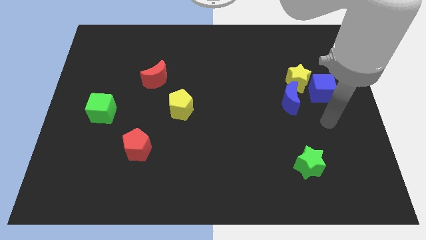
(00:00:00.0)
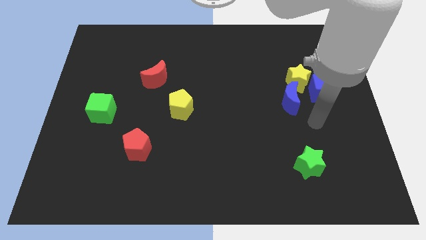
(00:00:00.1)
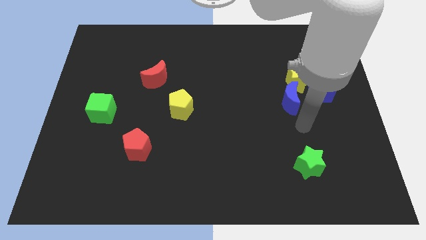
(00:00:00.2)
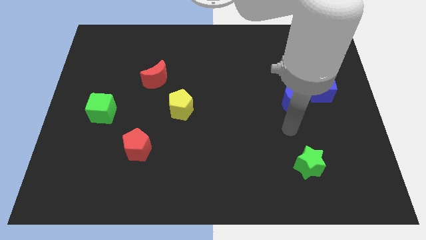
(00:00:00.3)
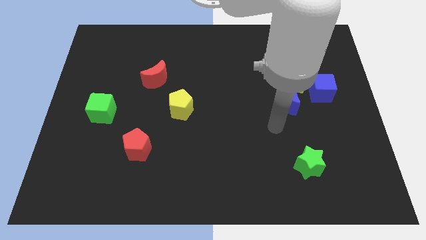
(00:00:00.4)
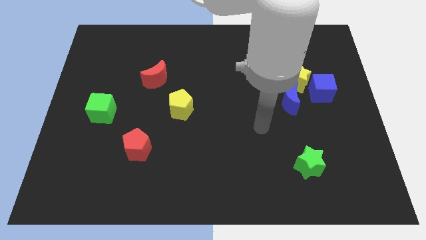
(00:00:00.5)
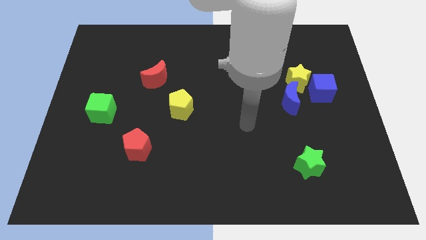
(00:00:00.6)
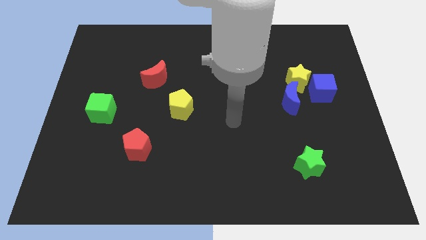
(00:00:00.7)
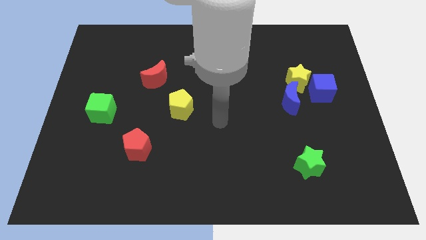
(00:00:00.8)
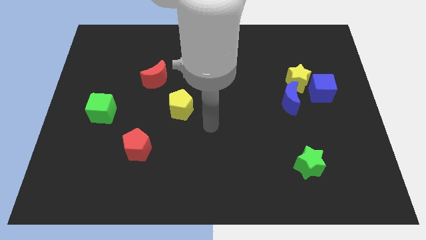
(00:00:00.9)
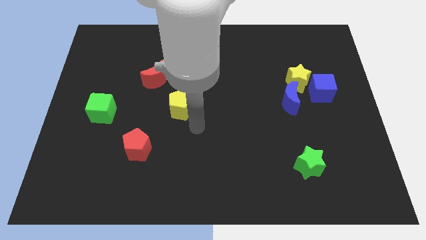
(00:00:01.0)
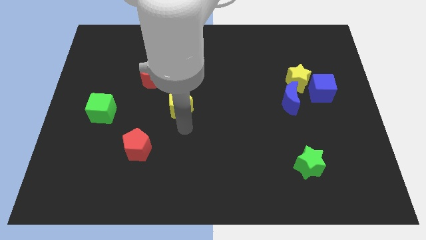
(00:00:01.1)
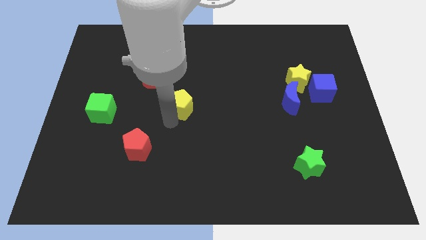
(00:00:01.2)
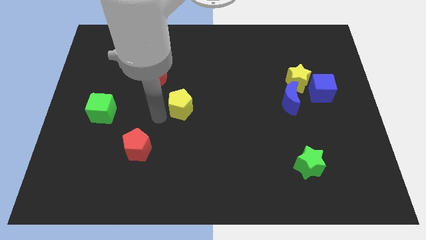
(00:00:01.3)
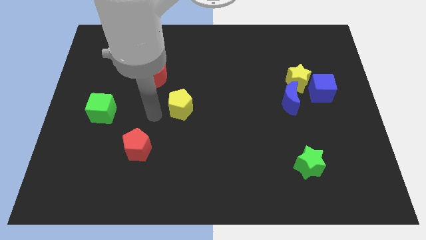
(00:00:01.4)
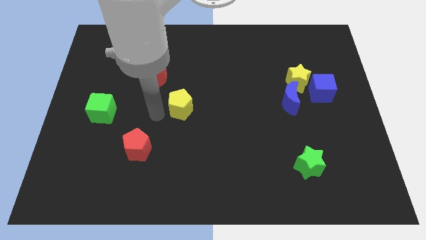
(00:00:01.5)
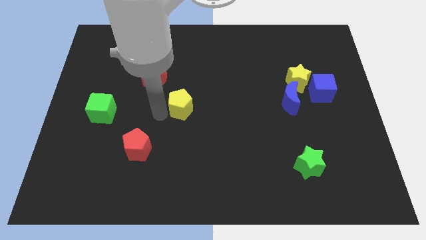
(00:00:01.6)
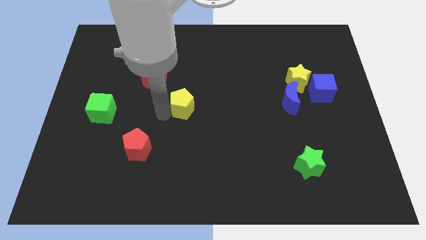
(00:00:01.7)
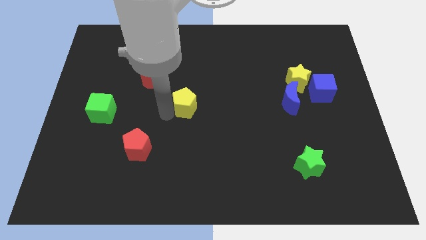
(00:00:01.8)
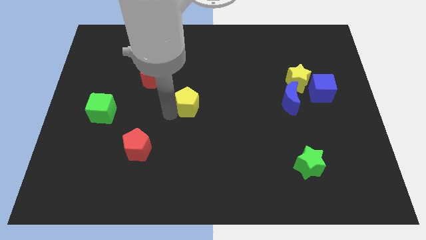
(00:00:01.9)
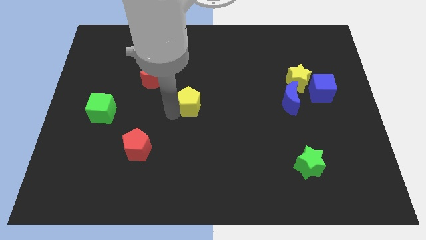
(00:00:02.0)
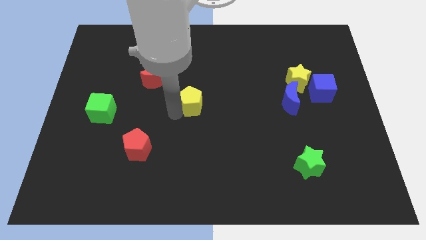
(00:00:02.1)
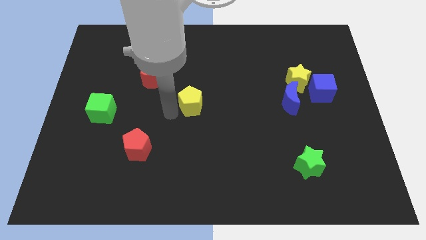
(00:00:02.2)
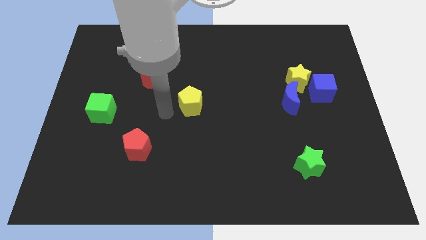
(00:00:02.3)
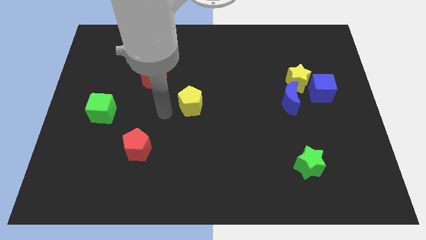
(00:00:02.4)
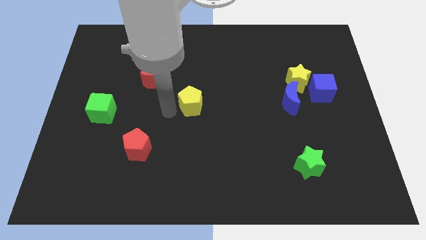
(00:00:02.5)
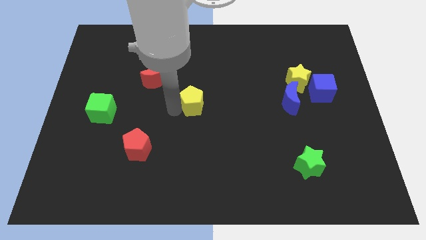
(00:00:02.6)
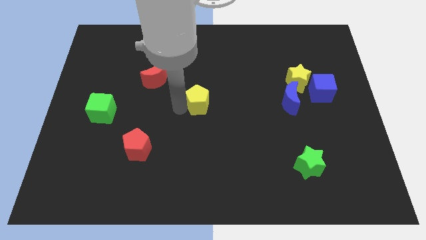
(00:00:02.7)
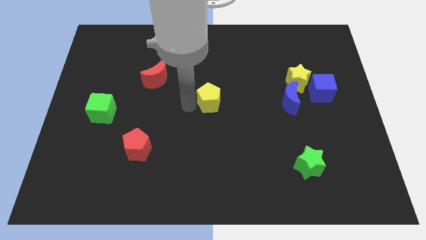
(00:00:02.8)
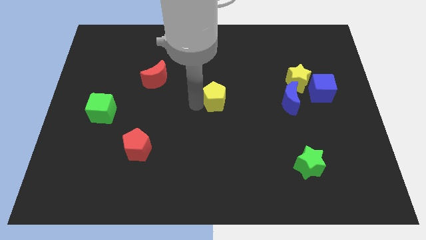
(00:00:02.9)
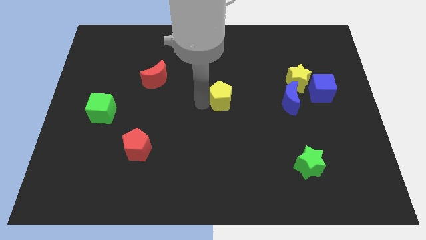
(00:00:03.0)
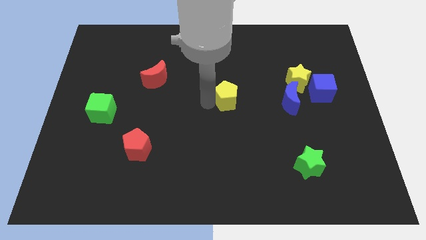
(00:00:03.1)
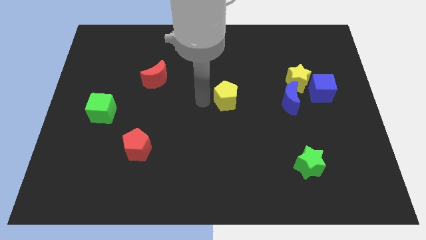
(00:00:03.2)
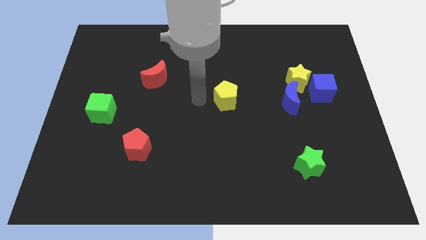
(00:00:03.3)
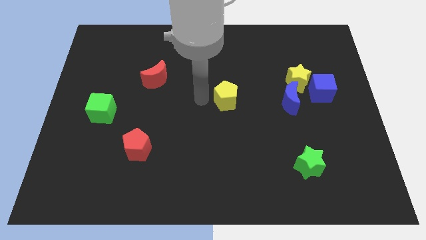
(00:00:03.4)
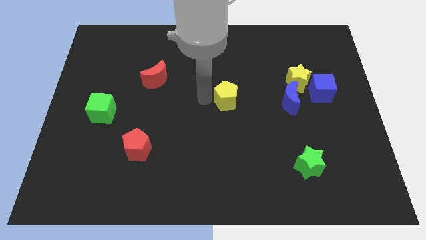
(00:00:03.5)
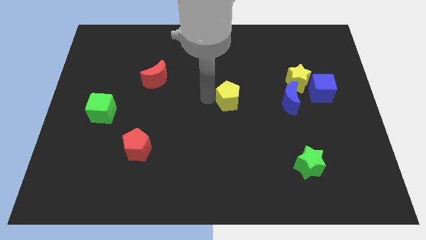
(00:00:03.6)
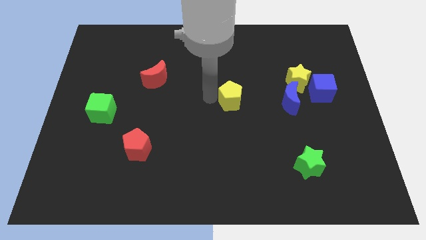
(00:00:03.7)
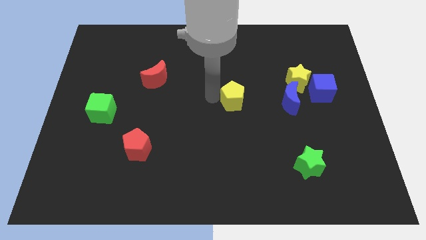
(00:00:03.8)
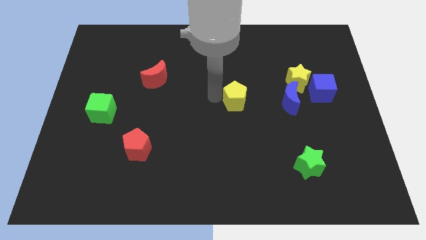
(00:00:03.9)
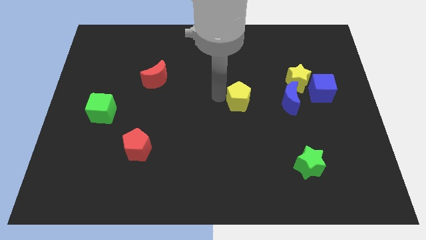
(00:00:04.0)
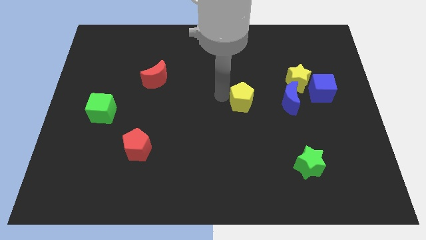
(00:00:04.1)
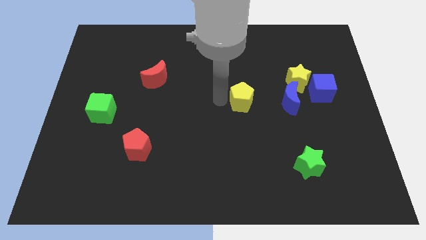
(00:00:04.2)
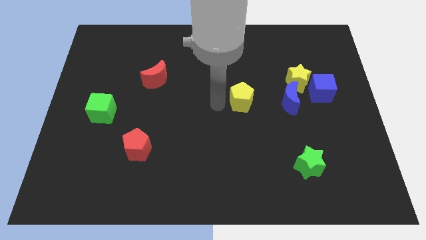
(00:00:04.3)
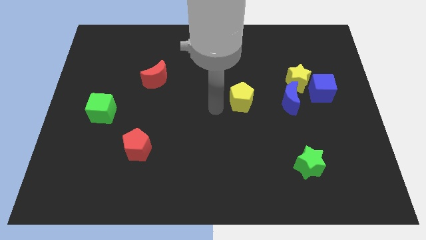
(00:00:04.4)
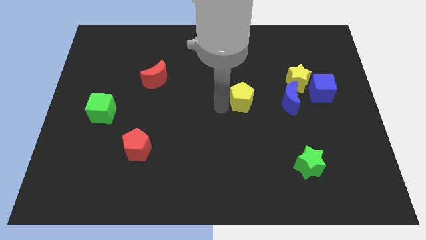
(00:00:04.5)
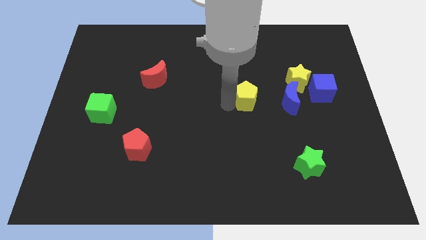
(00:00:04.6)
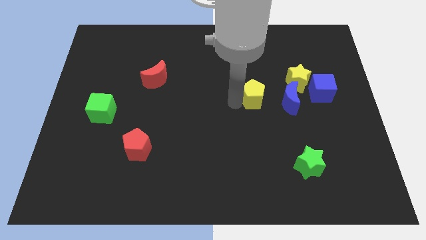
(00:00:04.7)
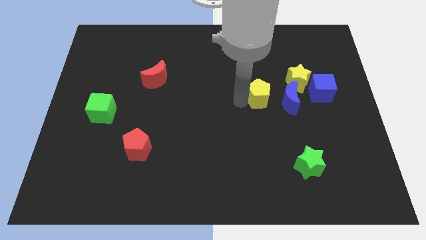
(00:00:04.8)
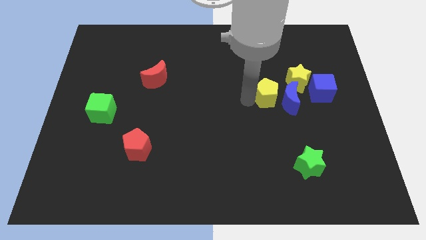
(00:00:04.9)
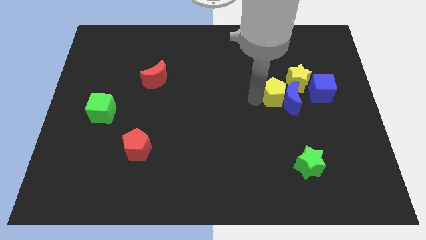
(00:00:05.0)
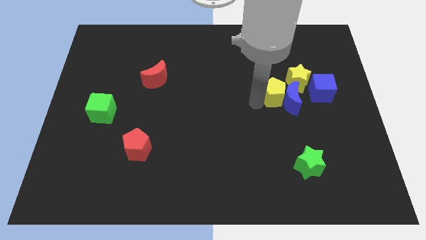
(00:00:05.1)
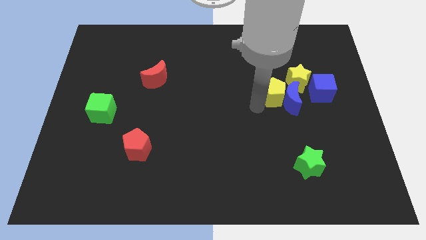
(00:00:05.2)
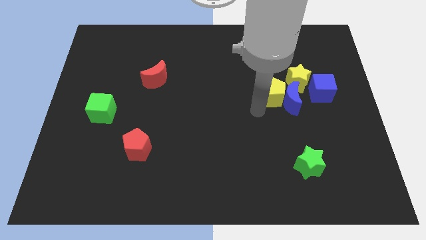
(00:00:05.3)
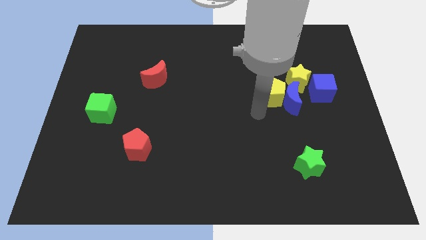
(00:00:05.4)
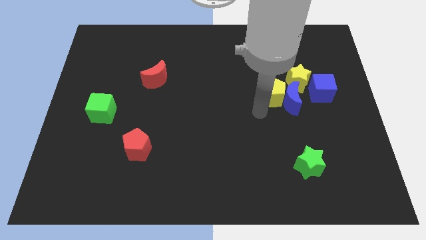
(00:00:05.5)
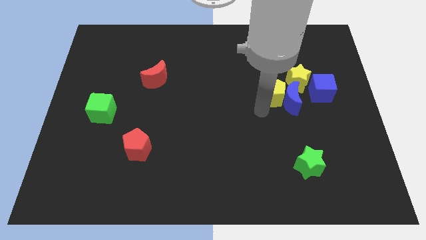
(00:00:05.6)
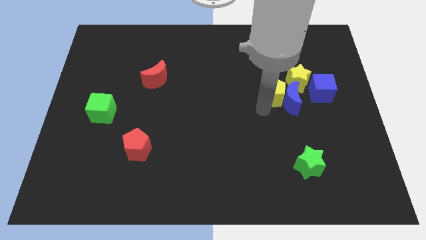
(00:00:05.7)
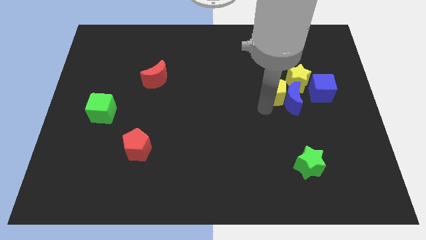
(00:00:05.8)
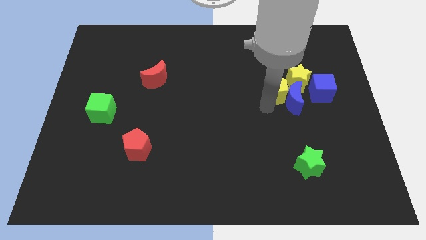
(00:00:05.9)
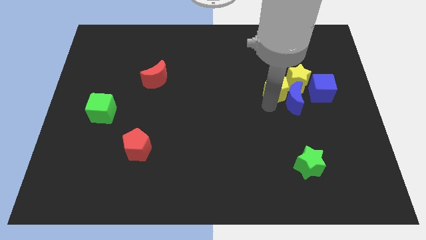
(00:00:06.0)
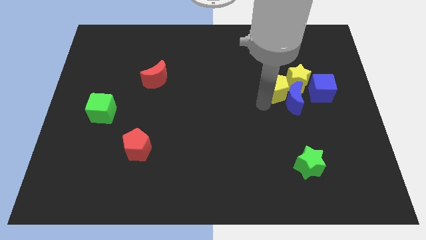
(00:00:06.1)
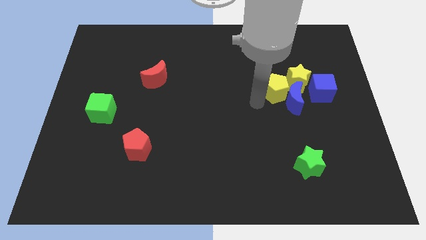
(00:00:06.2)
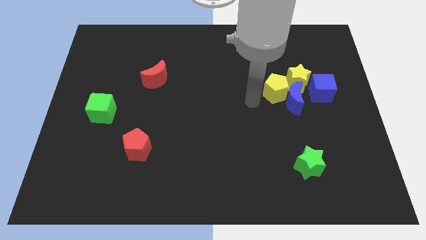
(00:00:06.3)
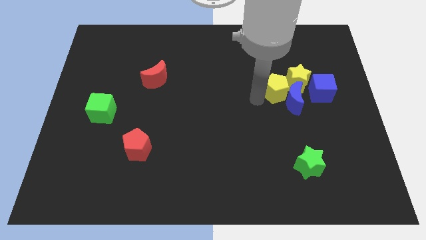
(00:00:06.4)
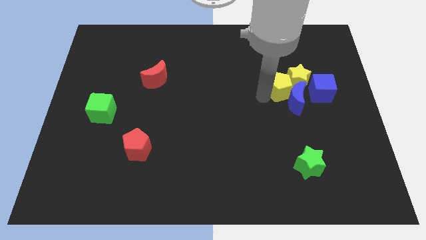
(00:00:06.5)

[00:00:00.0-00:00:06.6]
slide the yellow pentagon to the yellow star
